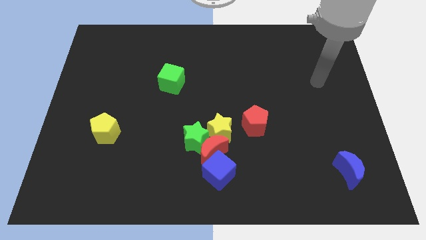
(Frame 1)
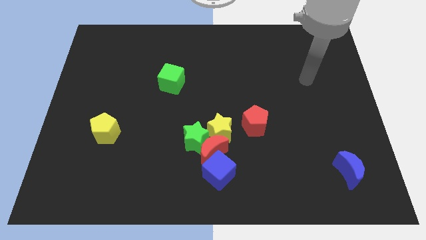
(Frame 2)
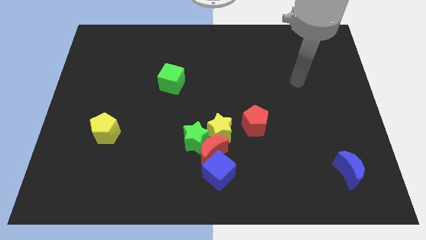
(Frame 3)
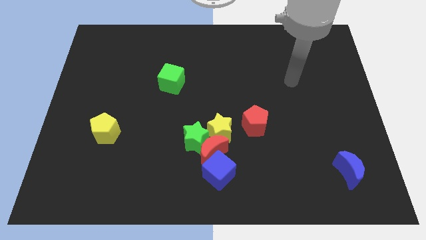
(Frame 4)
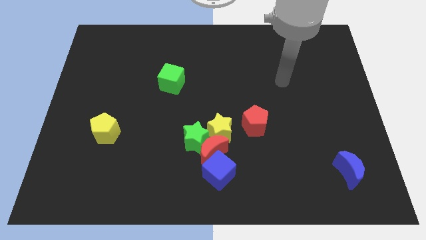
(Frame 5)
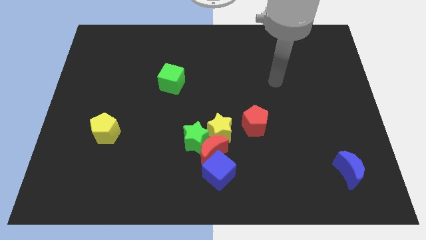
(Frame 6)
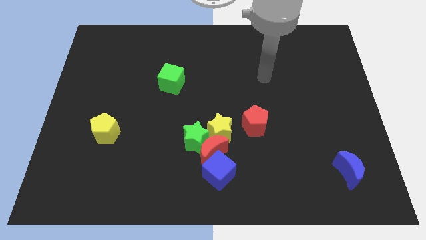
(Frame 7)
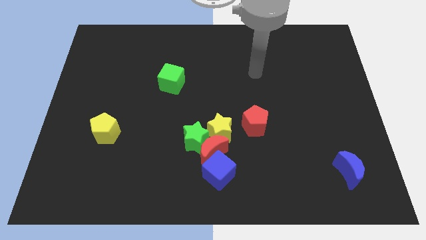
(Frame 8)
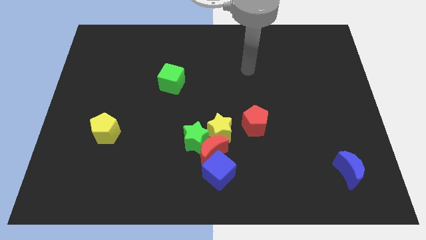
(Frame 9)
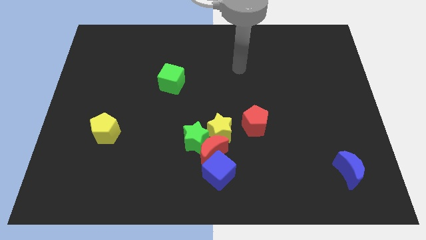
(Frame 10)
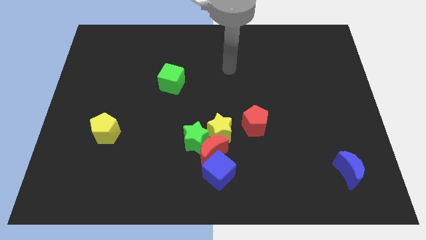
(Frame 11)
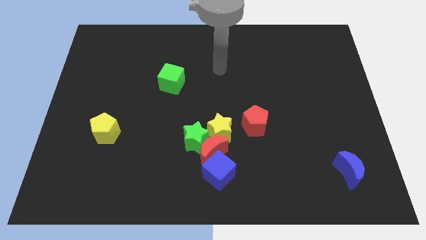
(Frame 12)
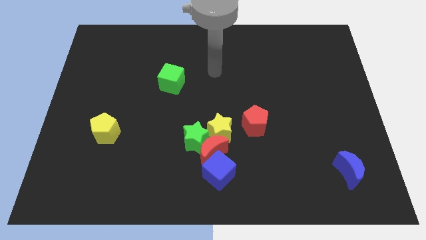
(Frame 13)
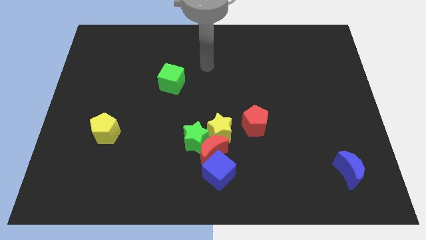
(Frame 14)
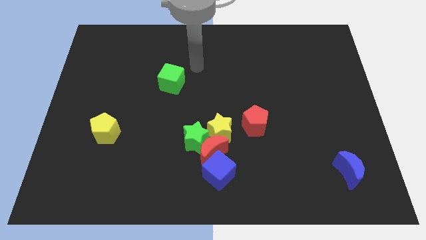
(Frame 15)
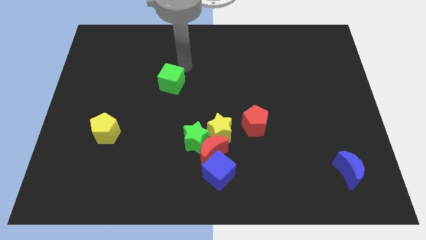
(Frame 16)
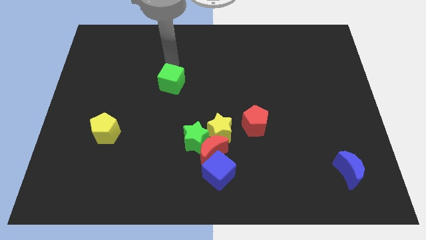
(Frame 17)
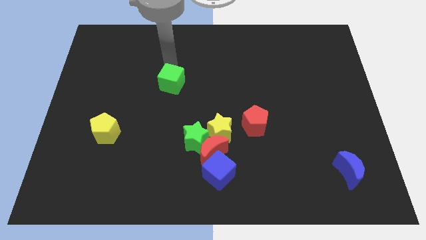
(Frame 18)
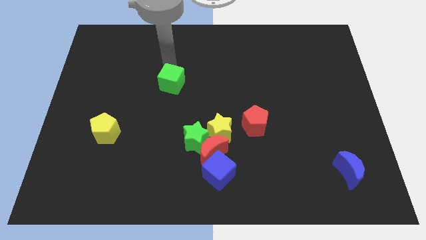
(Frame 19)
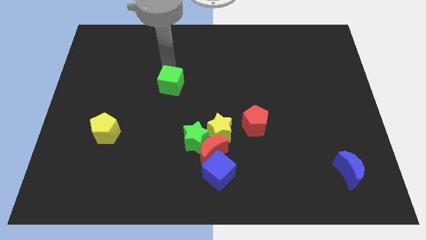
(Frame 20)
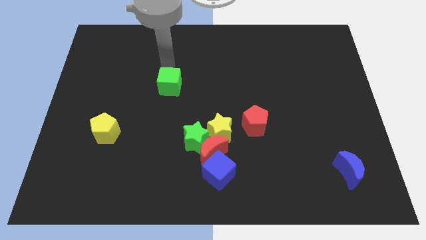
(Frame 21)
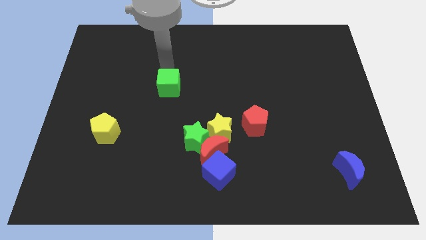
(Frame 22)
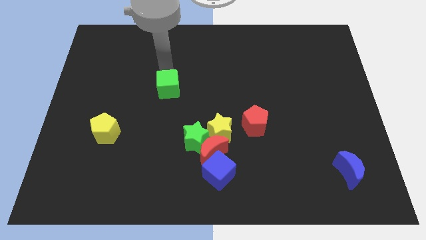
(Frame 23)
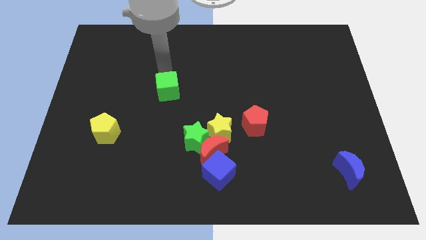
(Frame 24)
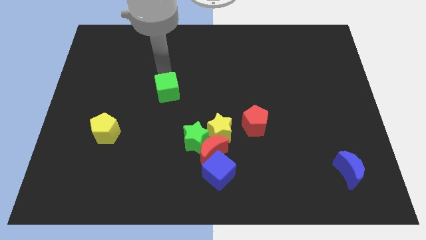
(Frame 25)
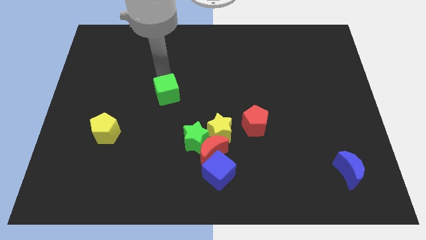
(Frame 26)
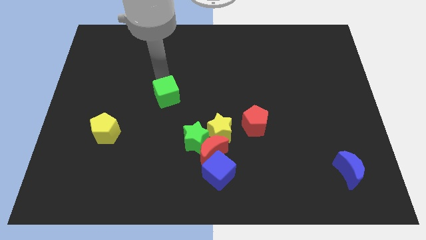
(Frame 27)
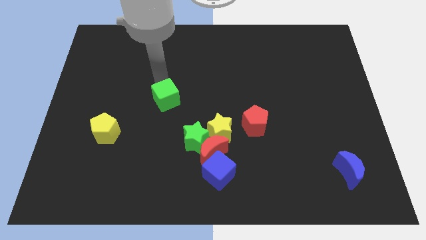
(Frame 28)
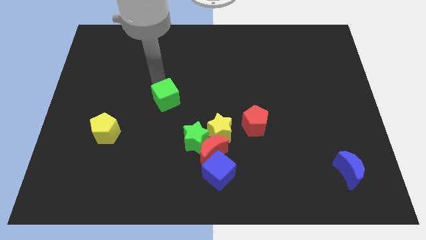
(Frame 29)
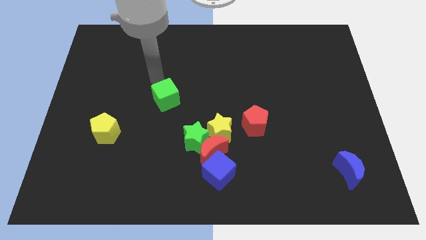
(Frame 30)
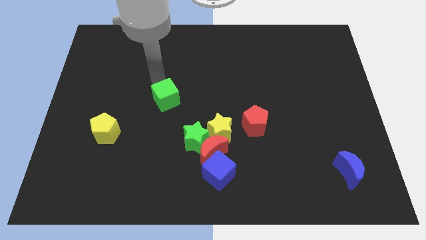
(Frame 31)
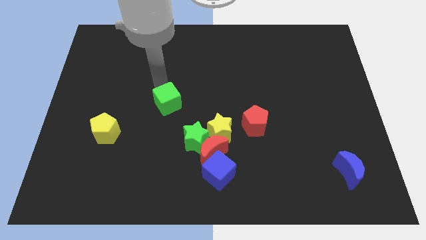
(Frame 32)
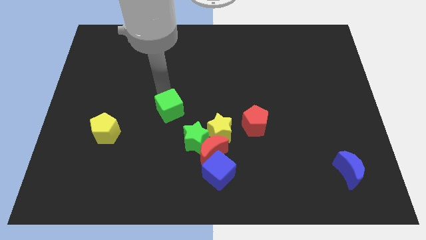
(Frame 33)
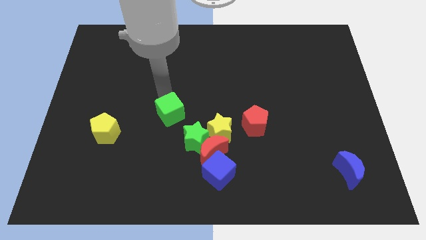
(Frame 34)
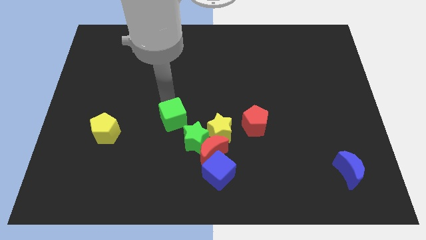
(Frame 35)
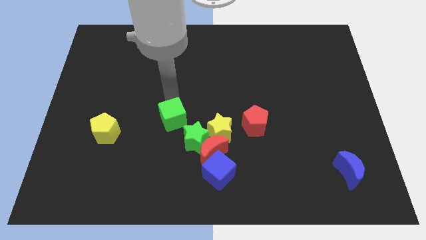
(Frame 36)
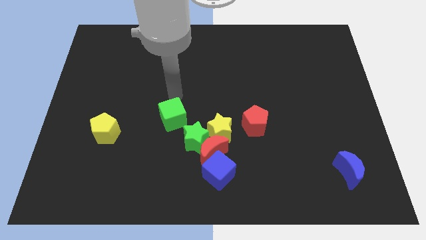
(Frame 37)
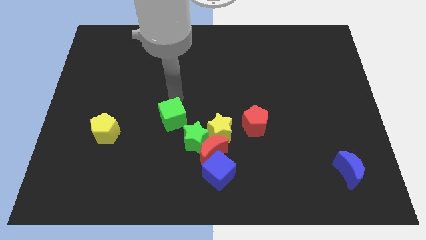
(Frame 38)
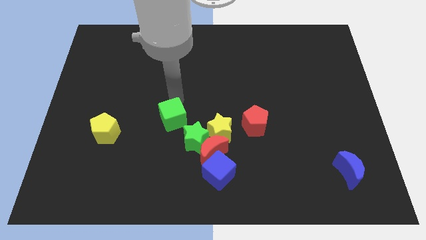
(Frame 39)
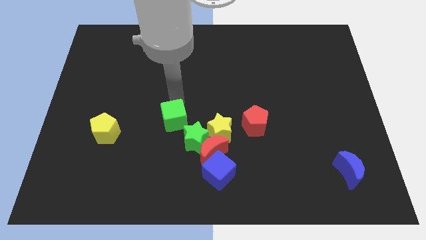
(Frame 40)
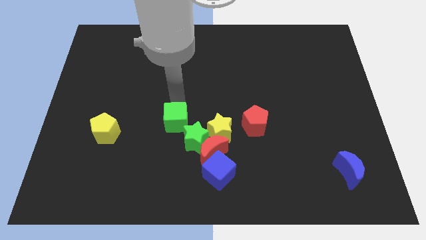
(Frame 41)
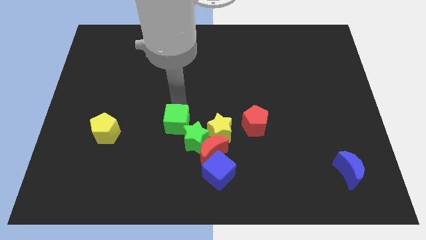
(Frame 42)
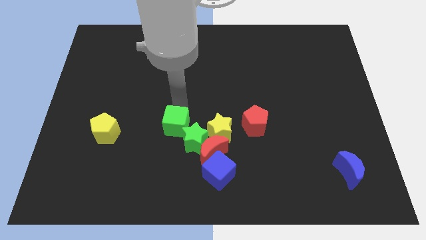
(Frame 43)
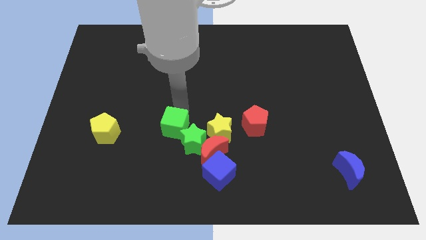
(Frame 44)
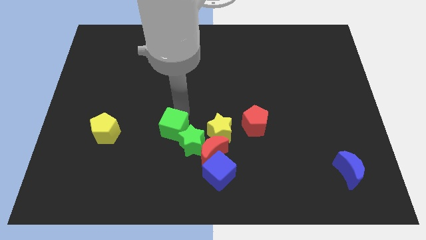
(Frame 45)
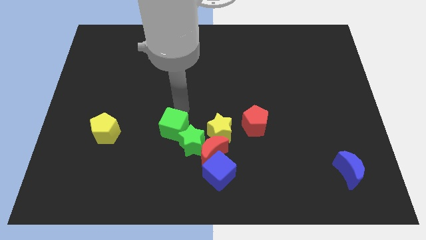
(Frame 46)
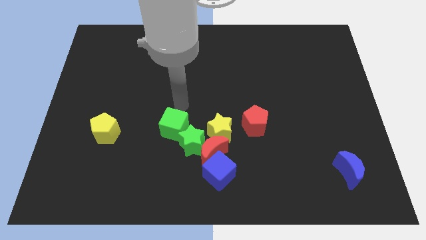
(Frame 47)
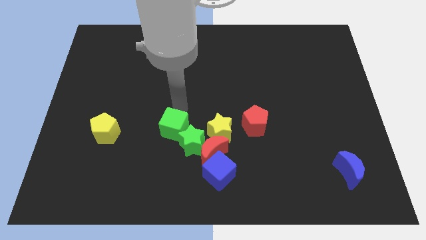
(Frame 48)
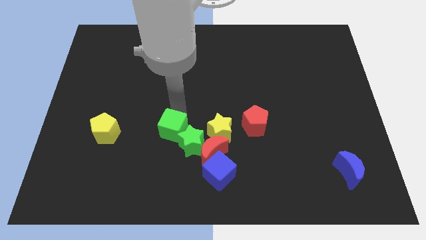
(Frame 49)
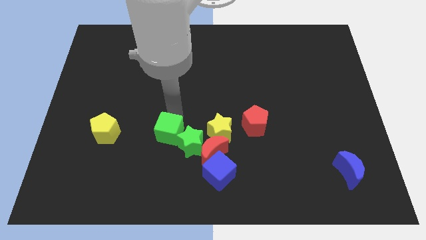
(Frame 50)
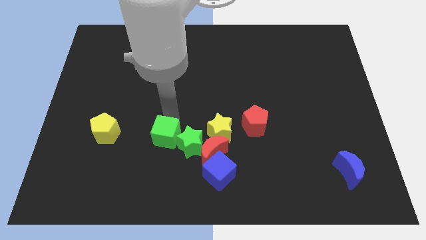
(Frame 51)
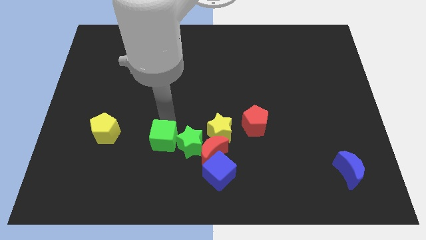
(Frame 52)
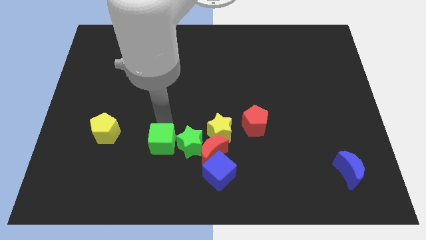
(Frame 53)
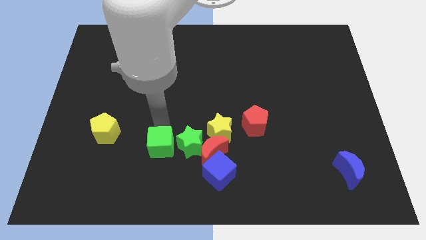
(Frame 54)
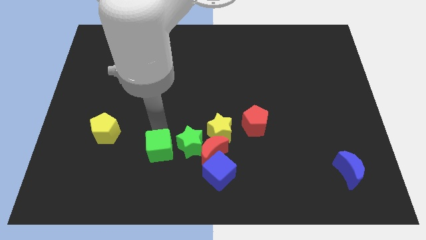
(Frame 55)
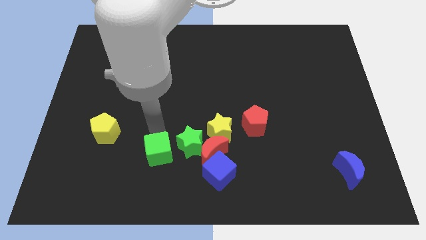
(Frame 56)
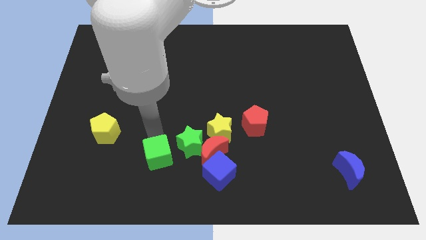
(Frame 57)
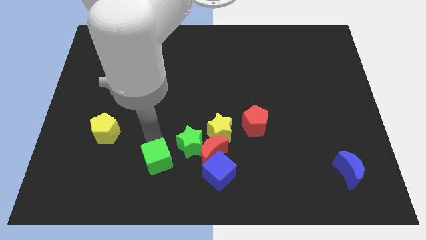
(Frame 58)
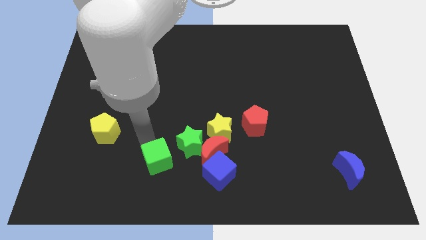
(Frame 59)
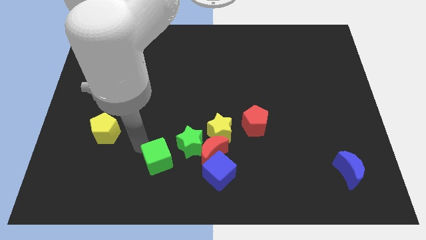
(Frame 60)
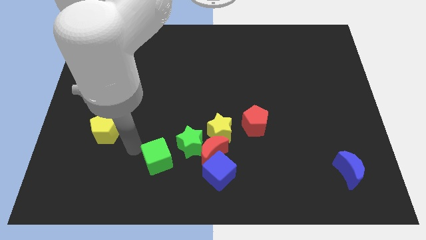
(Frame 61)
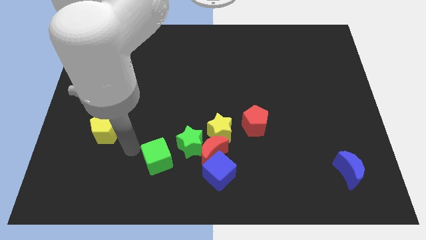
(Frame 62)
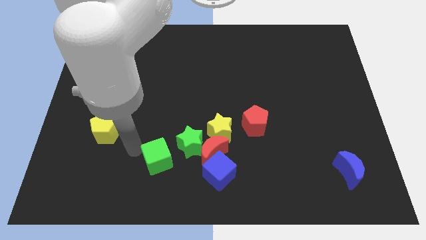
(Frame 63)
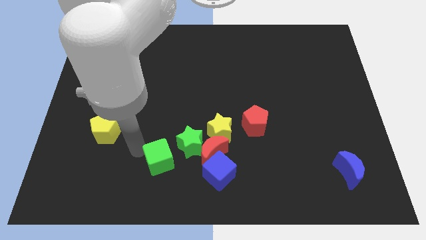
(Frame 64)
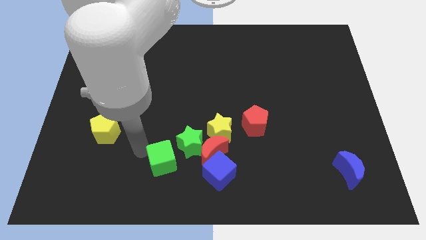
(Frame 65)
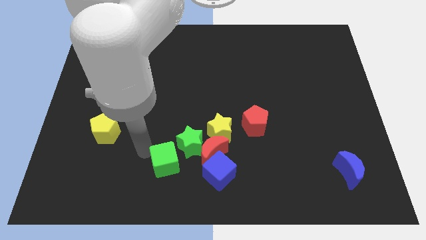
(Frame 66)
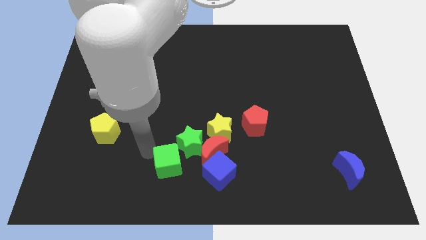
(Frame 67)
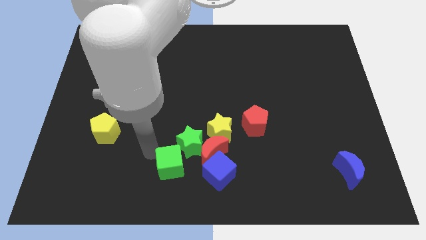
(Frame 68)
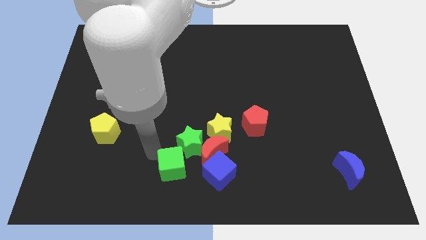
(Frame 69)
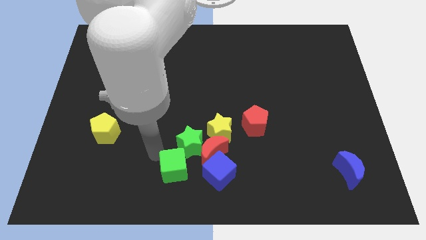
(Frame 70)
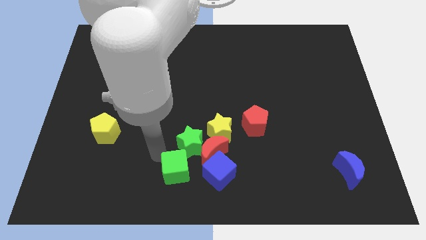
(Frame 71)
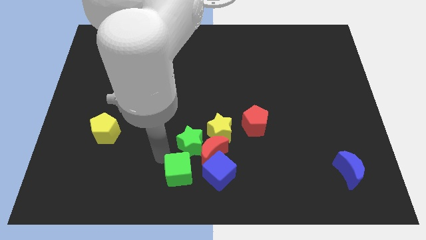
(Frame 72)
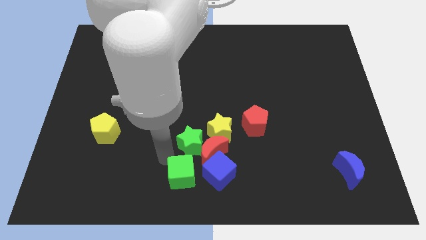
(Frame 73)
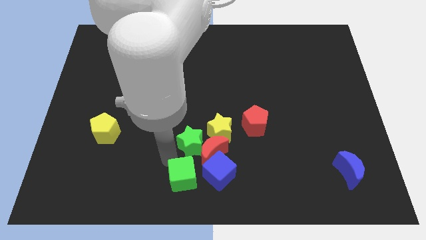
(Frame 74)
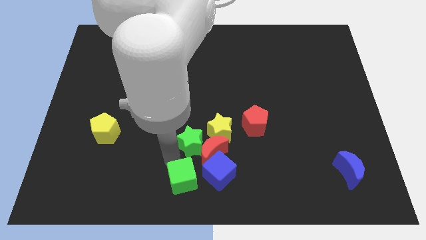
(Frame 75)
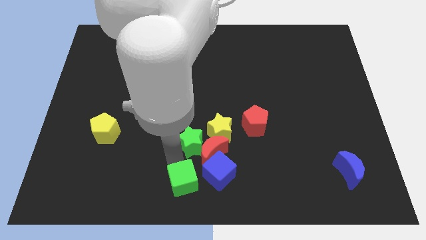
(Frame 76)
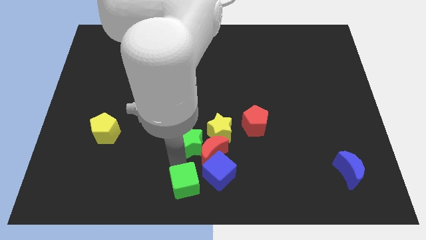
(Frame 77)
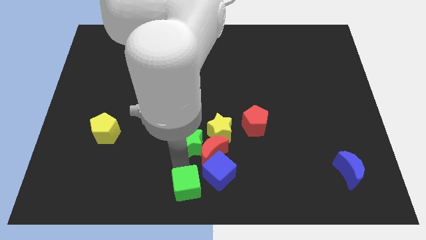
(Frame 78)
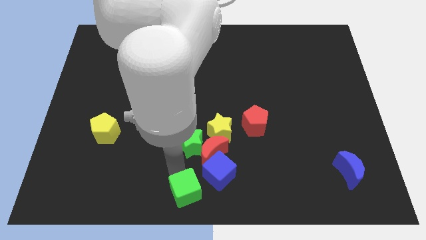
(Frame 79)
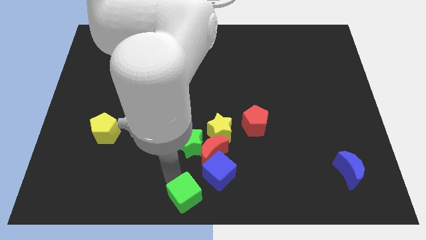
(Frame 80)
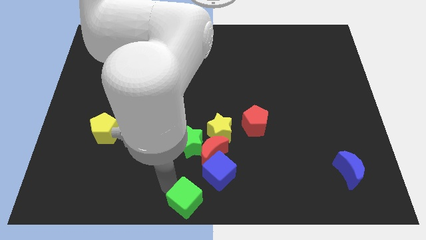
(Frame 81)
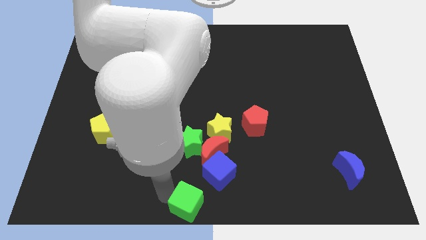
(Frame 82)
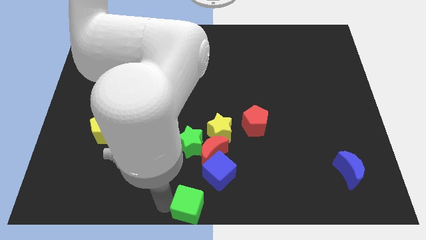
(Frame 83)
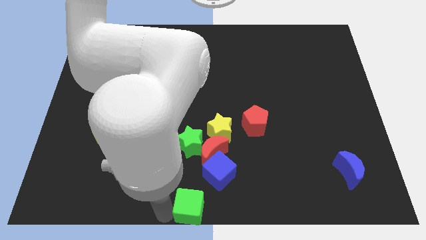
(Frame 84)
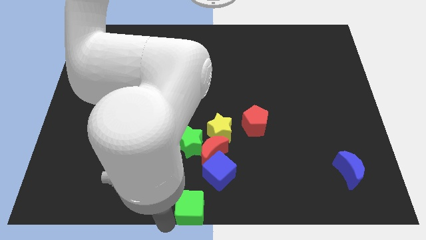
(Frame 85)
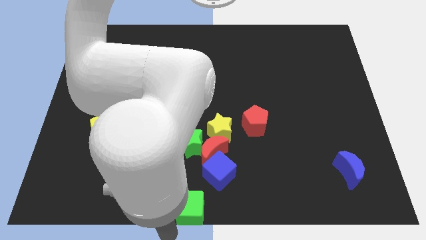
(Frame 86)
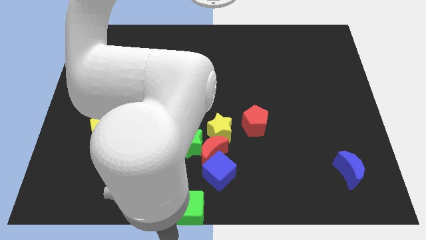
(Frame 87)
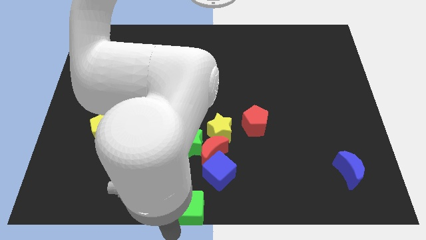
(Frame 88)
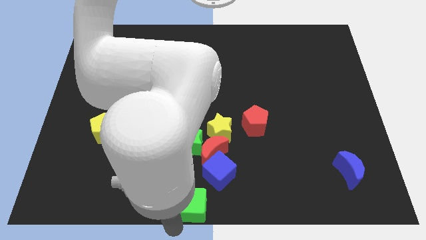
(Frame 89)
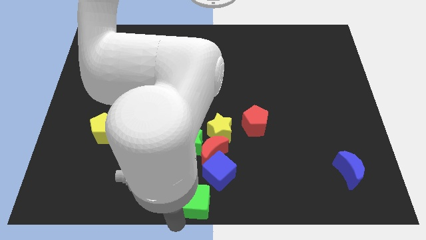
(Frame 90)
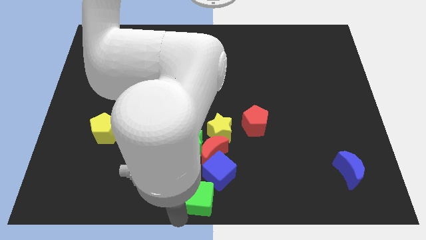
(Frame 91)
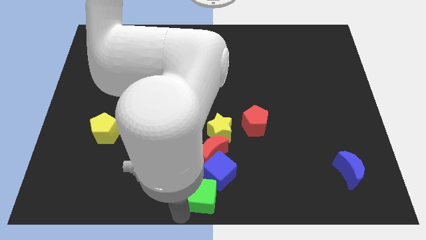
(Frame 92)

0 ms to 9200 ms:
move the green cube next to the blue cube
